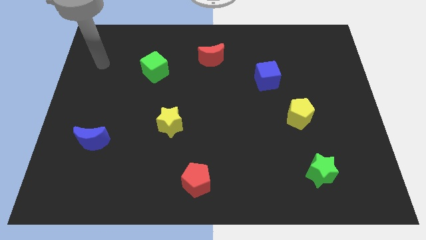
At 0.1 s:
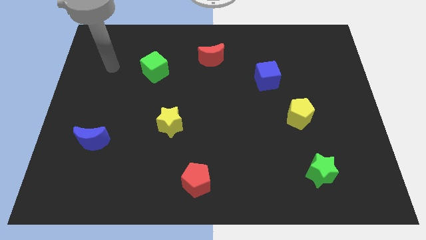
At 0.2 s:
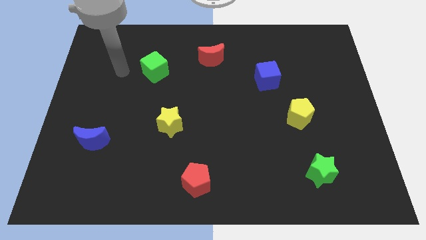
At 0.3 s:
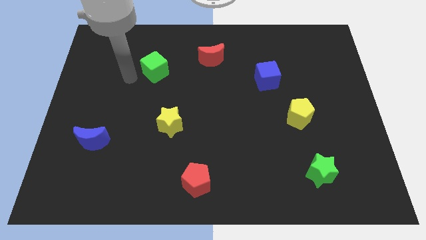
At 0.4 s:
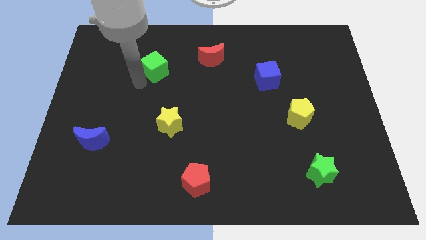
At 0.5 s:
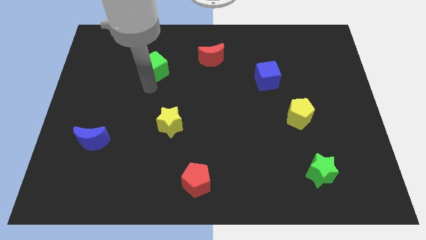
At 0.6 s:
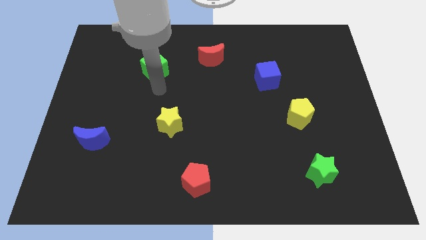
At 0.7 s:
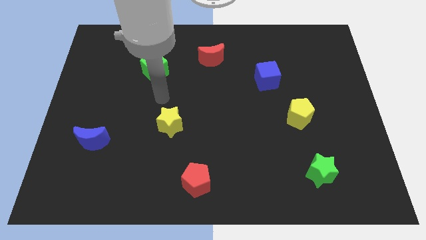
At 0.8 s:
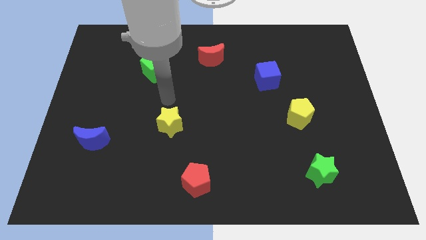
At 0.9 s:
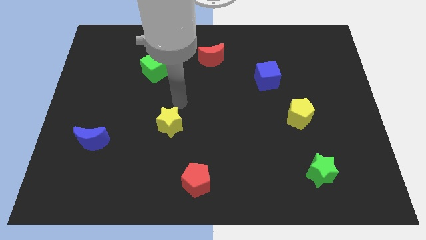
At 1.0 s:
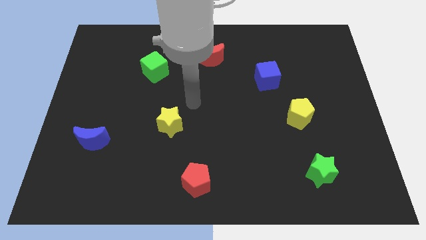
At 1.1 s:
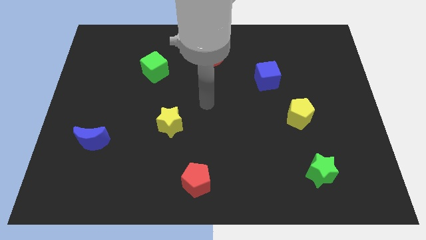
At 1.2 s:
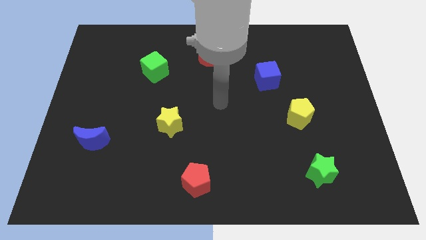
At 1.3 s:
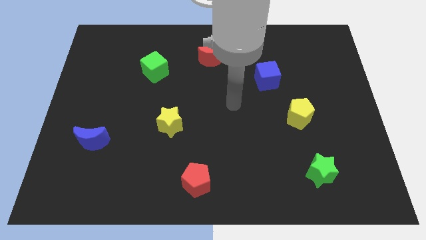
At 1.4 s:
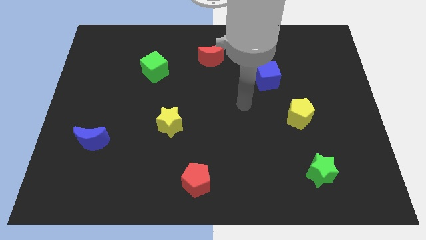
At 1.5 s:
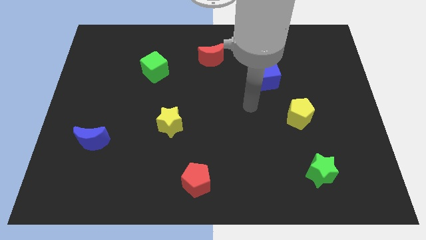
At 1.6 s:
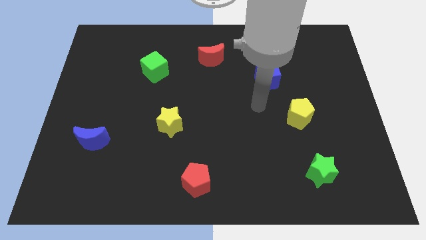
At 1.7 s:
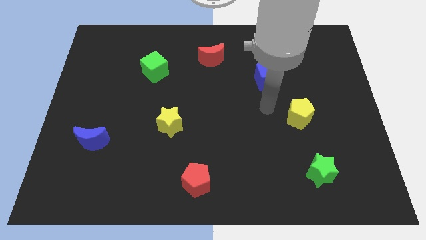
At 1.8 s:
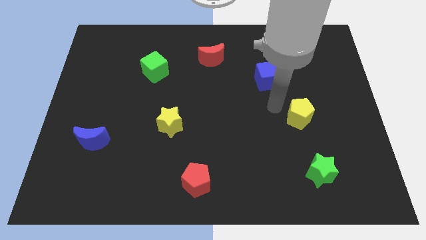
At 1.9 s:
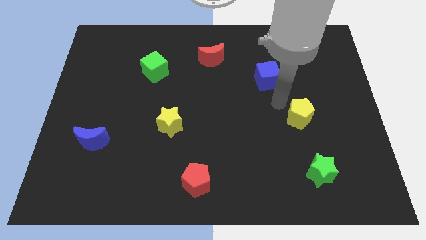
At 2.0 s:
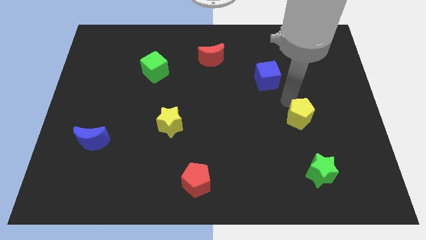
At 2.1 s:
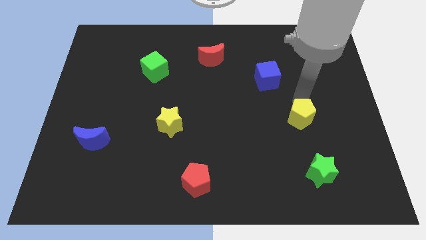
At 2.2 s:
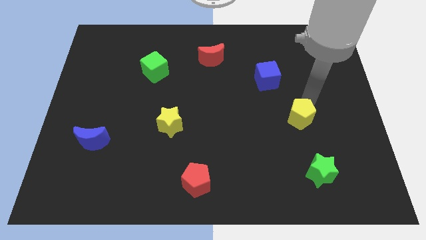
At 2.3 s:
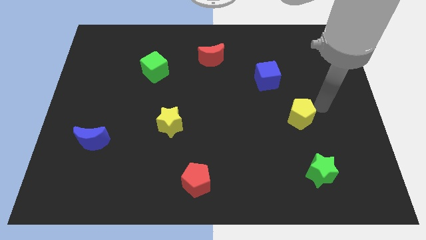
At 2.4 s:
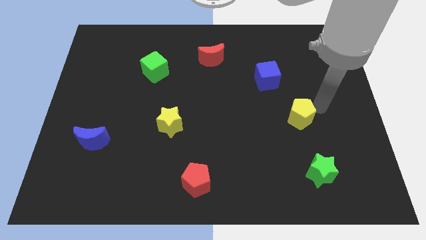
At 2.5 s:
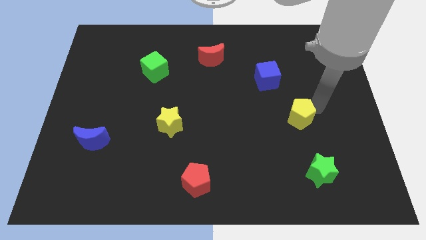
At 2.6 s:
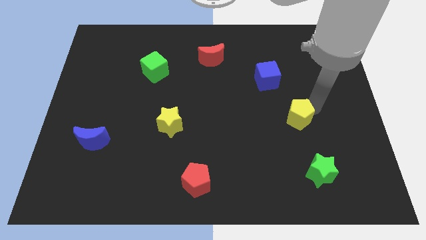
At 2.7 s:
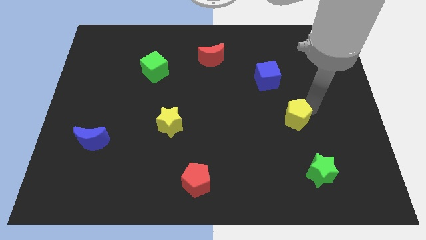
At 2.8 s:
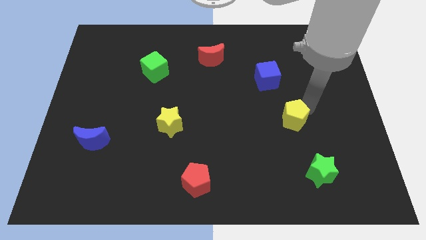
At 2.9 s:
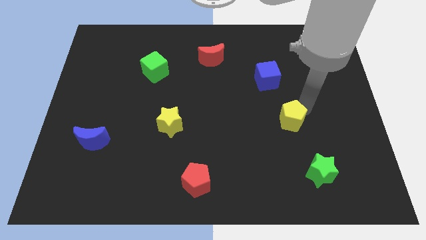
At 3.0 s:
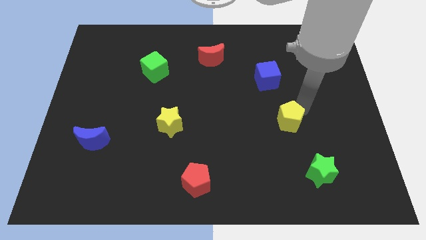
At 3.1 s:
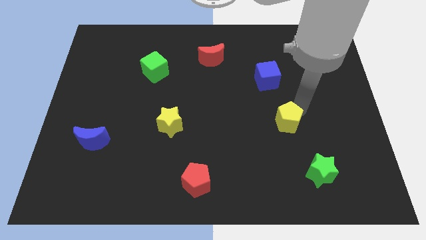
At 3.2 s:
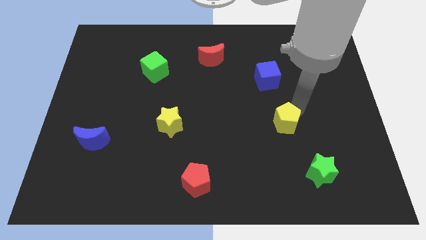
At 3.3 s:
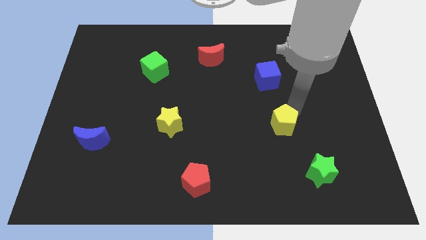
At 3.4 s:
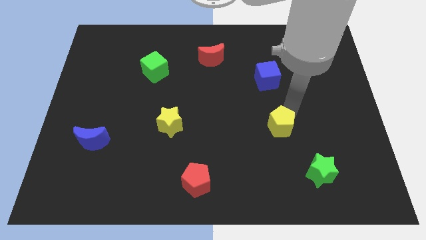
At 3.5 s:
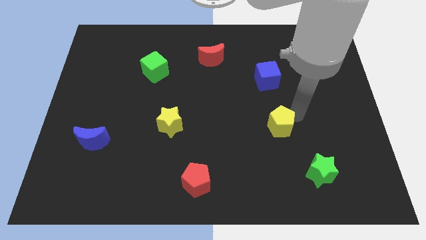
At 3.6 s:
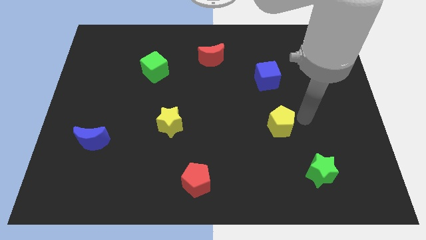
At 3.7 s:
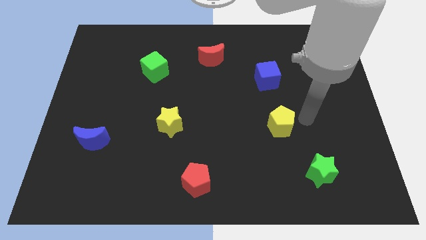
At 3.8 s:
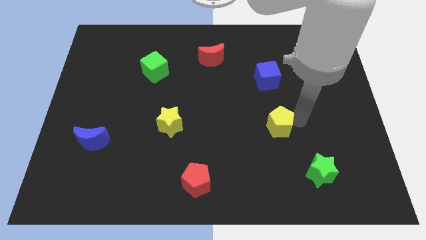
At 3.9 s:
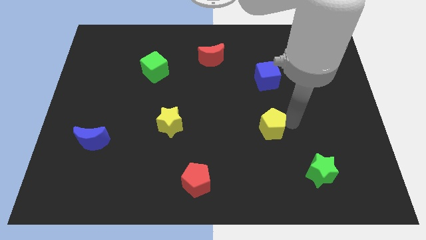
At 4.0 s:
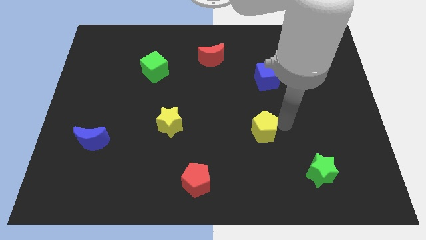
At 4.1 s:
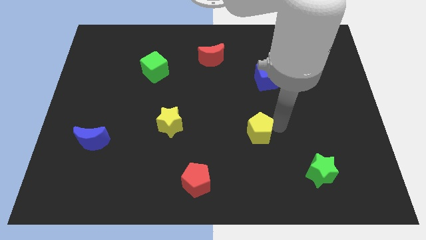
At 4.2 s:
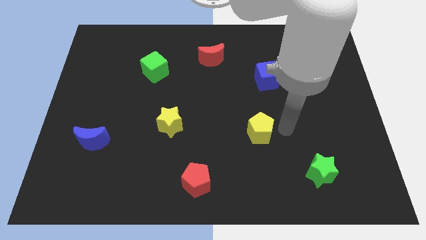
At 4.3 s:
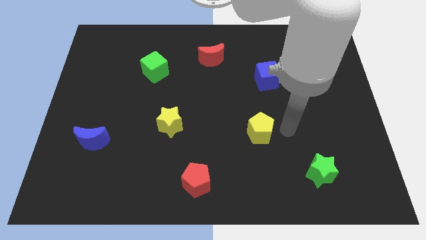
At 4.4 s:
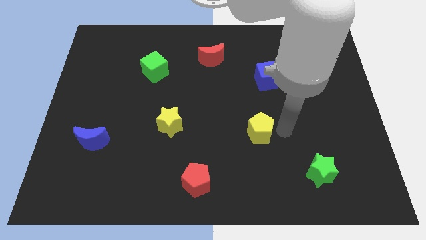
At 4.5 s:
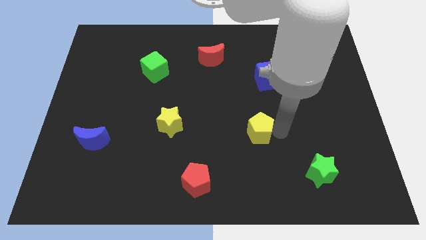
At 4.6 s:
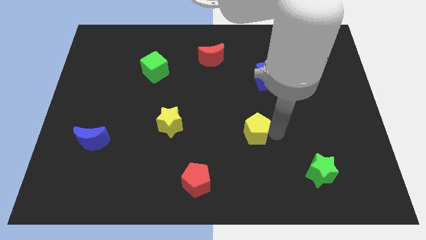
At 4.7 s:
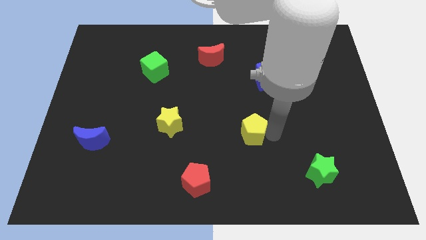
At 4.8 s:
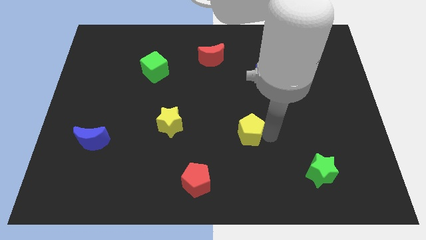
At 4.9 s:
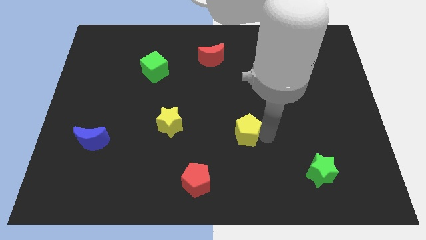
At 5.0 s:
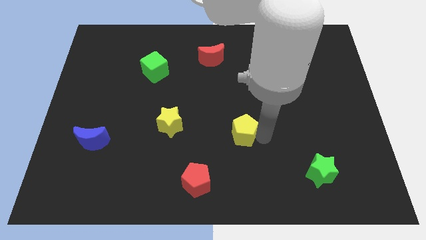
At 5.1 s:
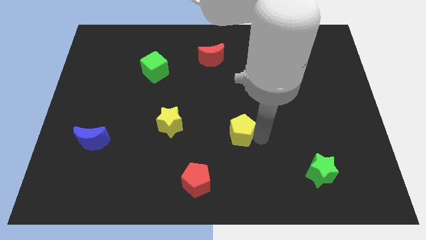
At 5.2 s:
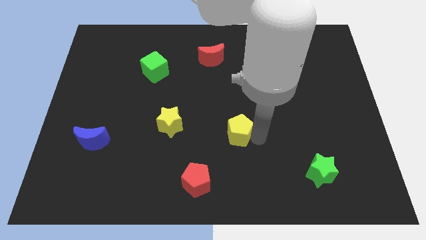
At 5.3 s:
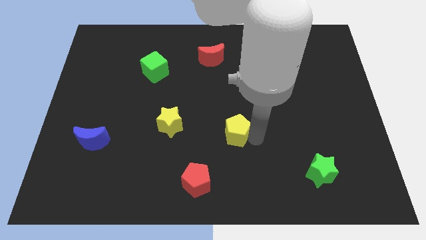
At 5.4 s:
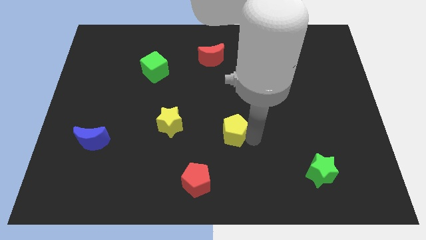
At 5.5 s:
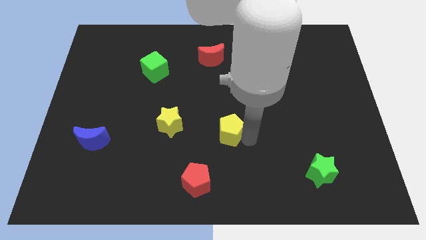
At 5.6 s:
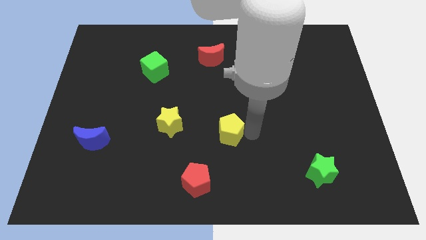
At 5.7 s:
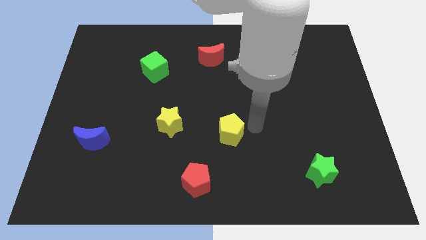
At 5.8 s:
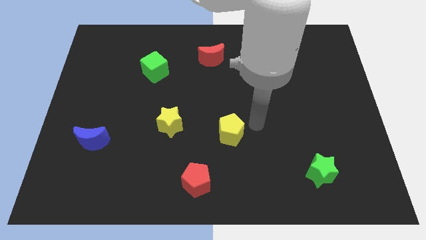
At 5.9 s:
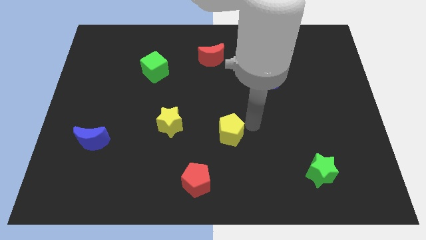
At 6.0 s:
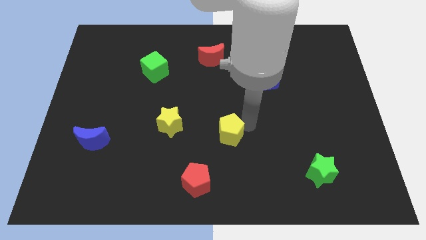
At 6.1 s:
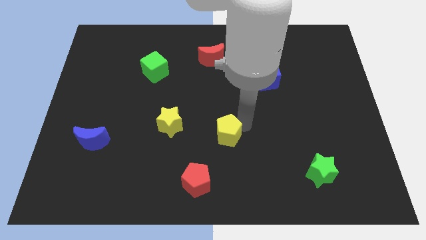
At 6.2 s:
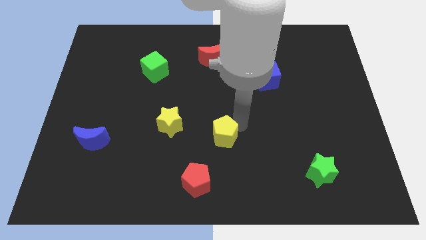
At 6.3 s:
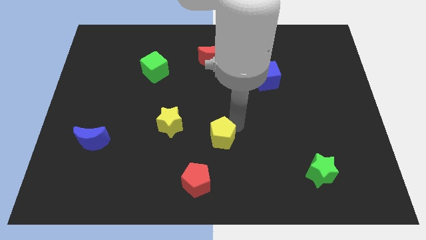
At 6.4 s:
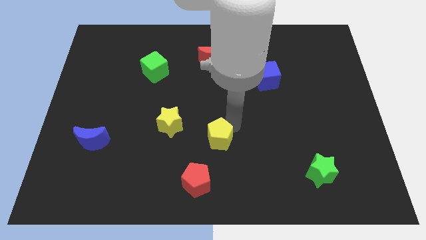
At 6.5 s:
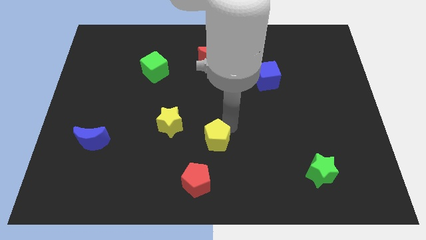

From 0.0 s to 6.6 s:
put the yellow pentagon to the bottom right side of the yellow star
